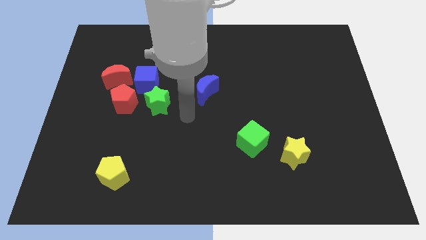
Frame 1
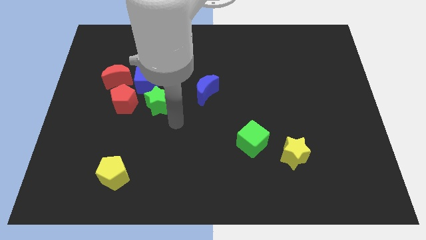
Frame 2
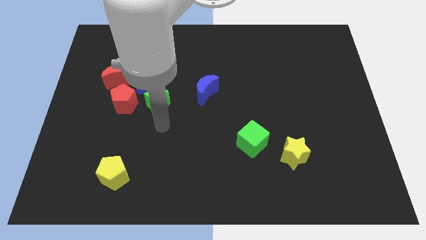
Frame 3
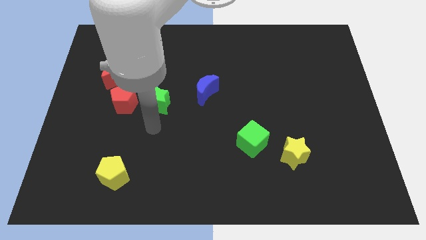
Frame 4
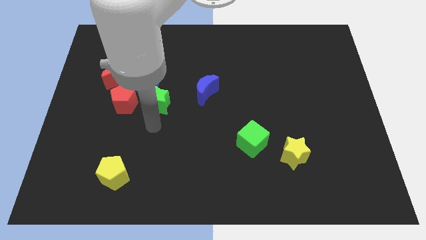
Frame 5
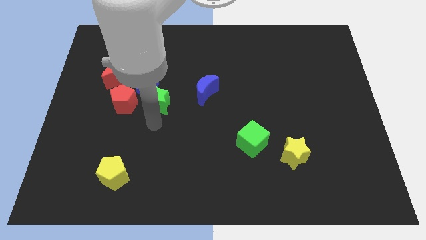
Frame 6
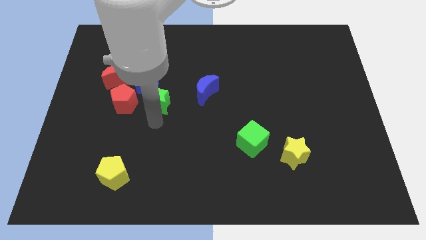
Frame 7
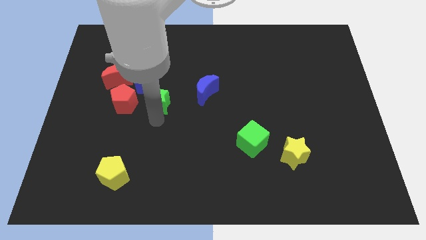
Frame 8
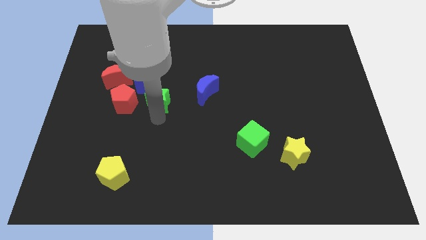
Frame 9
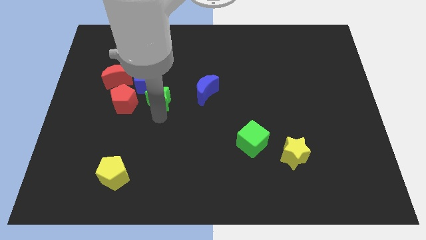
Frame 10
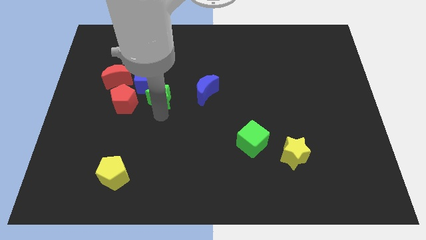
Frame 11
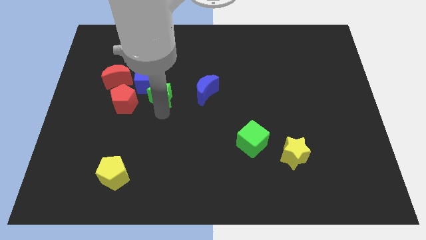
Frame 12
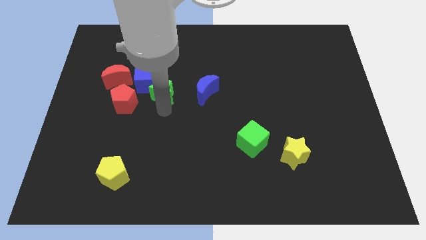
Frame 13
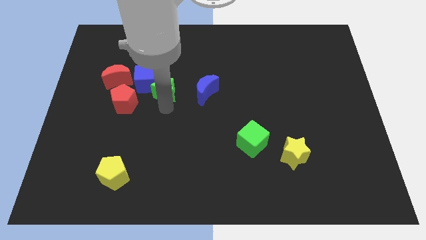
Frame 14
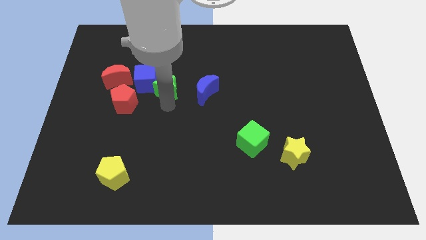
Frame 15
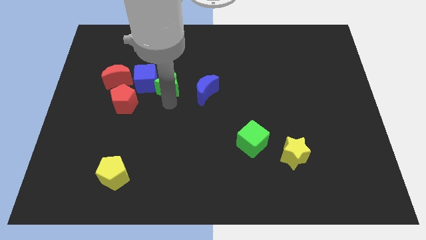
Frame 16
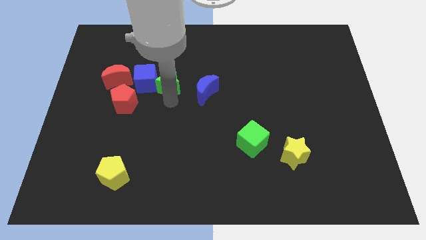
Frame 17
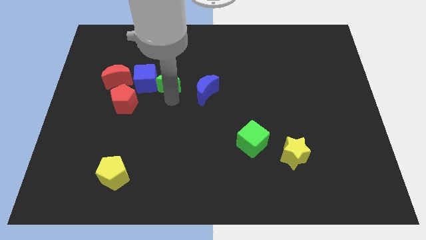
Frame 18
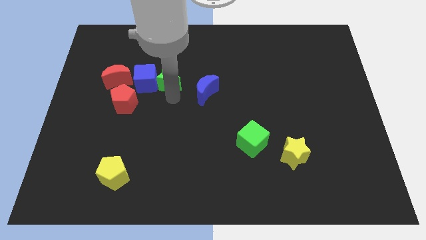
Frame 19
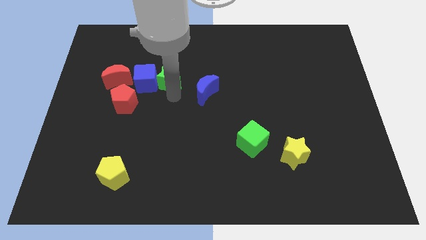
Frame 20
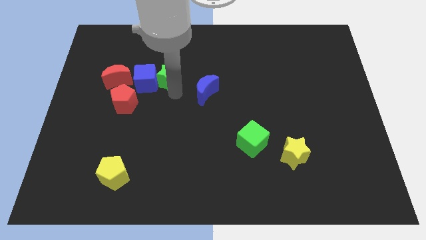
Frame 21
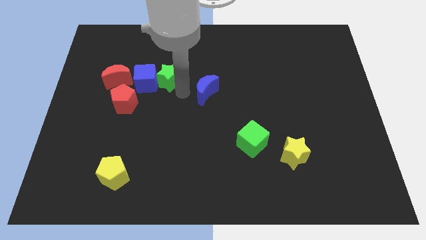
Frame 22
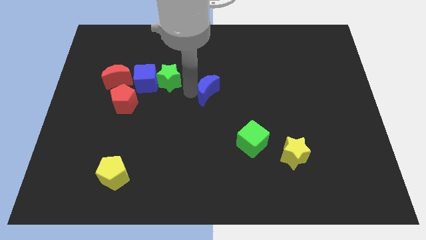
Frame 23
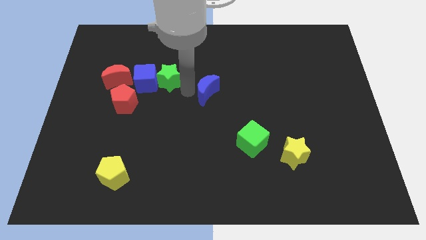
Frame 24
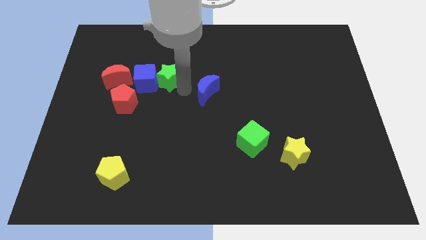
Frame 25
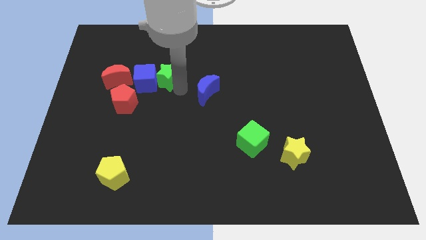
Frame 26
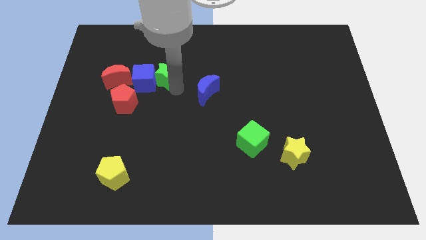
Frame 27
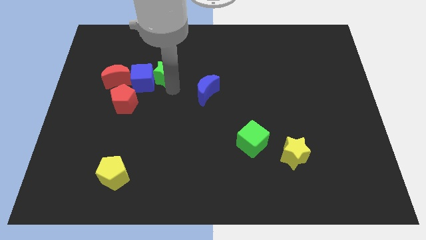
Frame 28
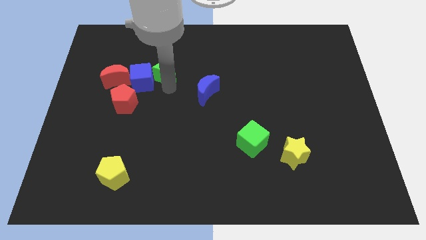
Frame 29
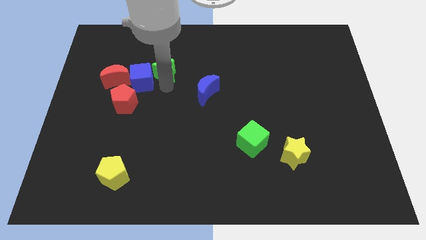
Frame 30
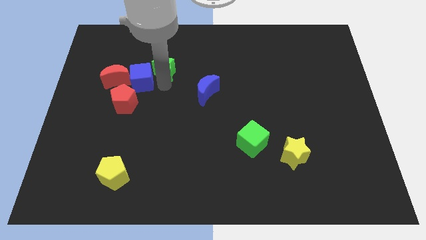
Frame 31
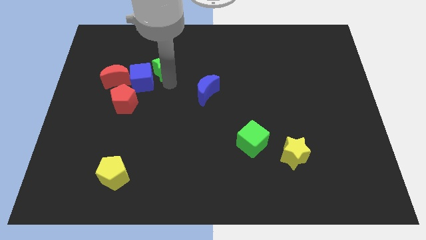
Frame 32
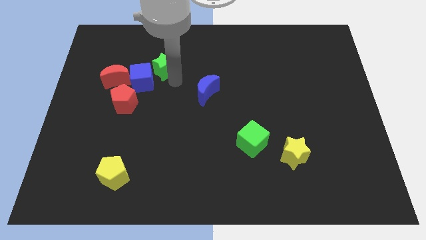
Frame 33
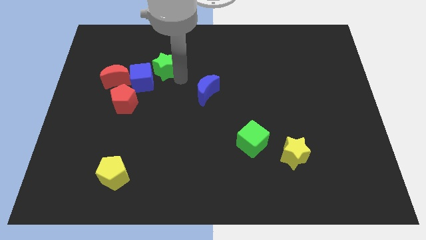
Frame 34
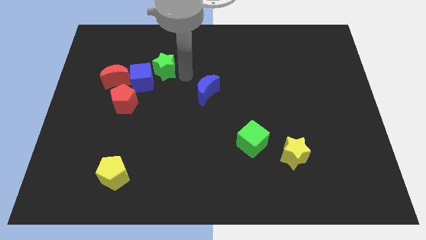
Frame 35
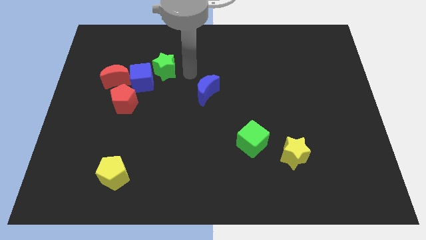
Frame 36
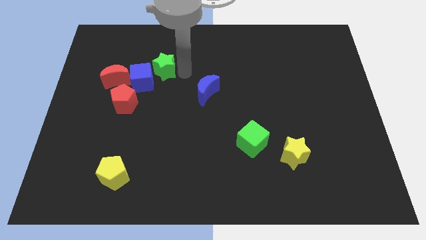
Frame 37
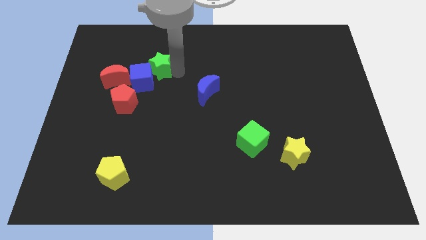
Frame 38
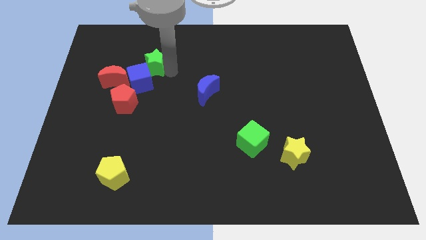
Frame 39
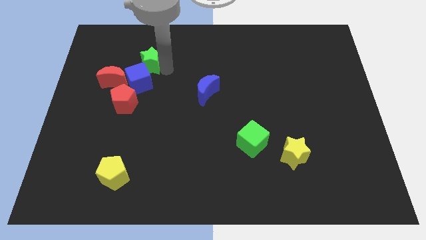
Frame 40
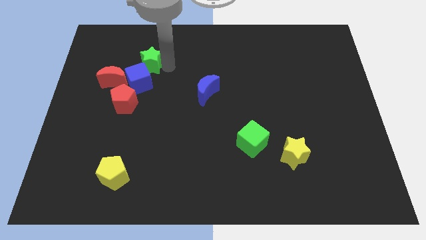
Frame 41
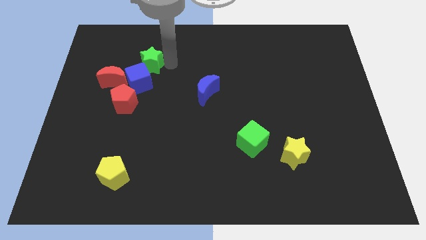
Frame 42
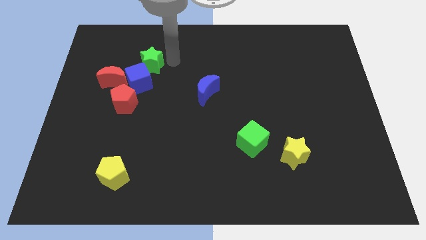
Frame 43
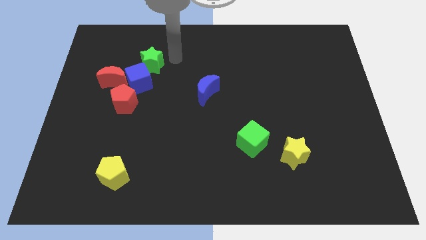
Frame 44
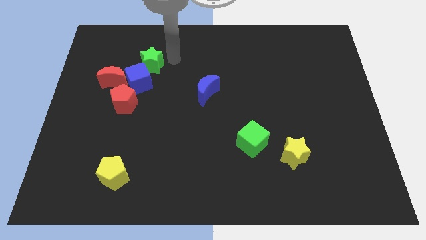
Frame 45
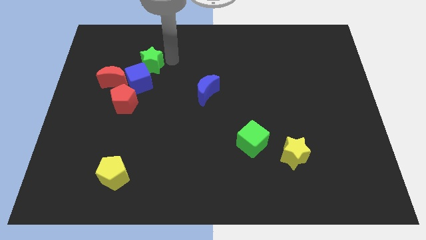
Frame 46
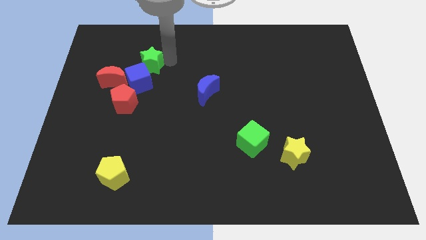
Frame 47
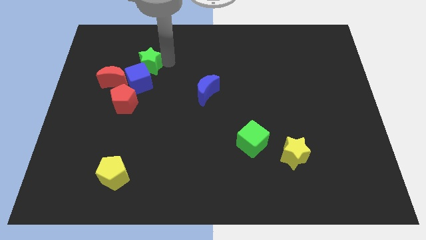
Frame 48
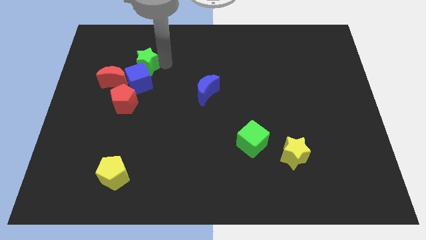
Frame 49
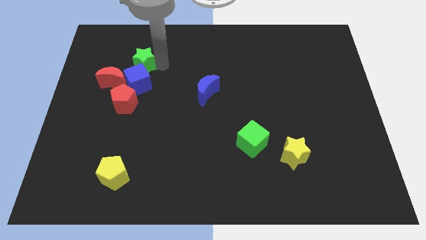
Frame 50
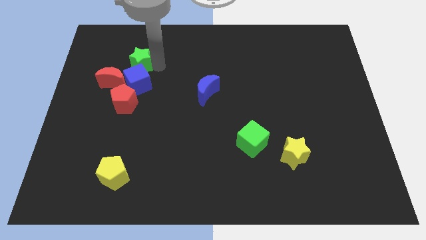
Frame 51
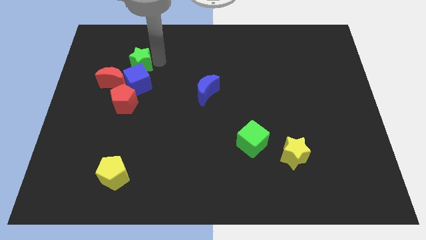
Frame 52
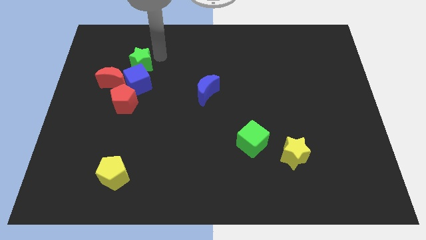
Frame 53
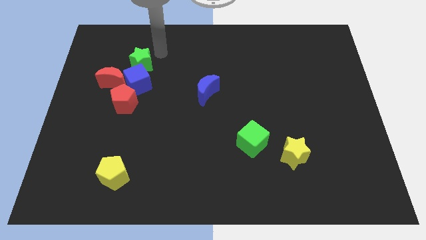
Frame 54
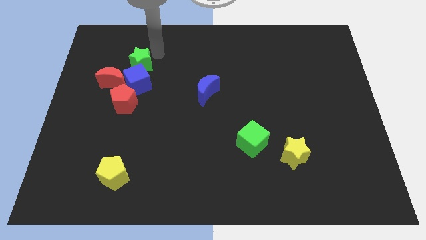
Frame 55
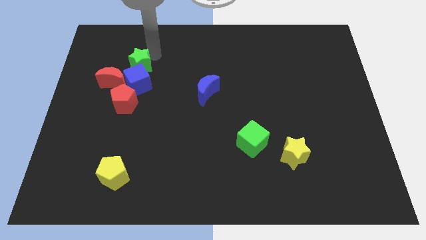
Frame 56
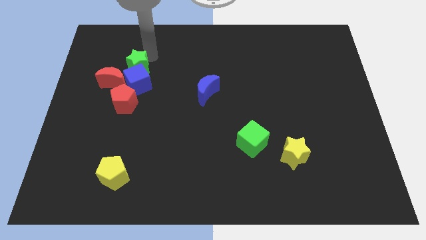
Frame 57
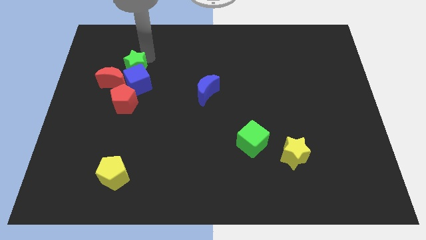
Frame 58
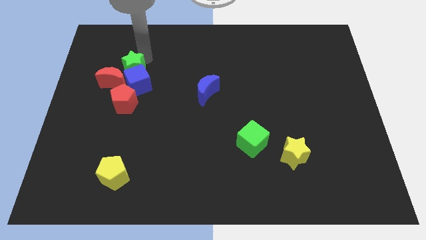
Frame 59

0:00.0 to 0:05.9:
put the green star to the red moon

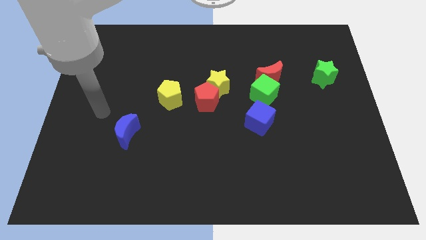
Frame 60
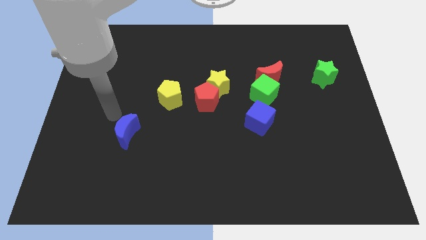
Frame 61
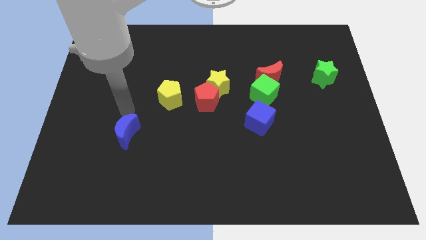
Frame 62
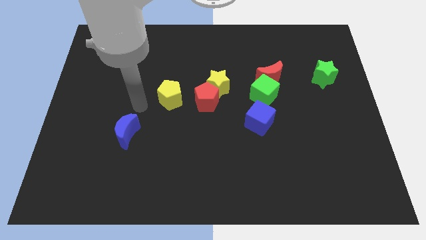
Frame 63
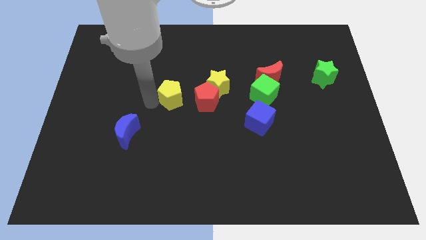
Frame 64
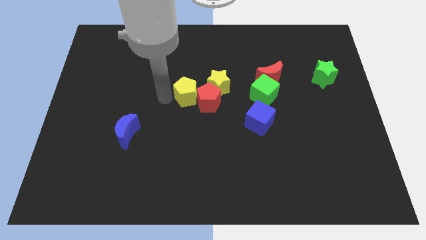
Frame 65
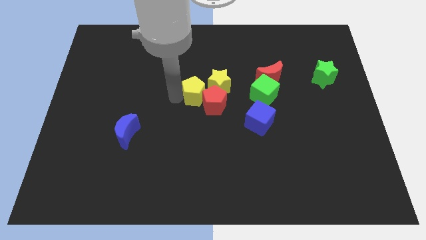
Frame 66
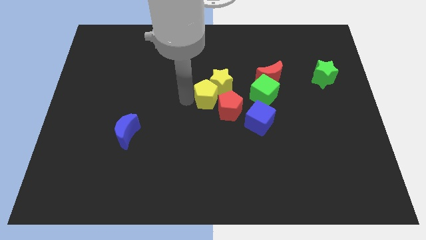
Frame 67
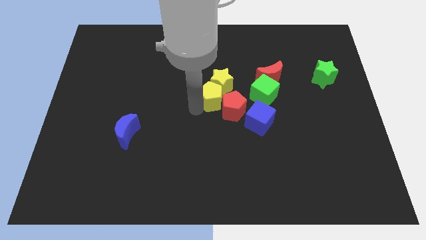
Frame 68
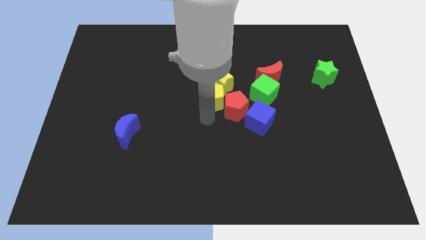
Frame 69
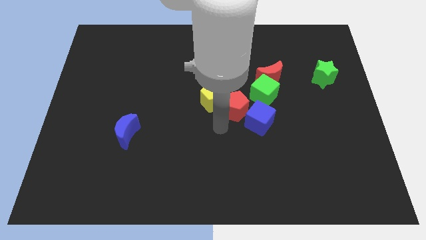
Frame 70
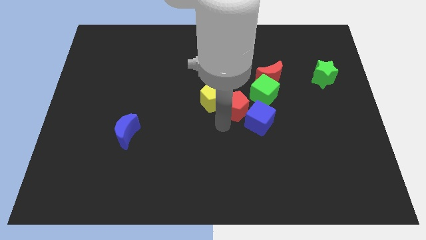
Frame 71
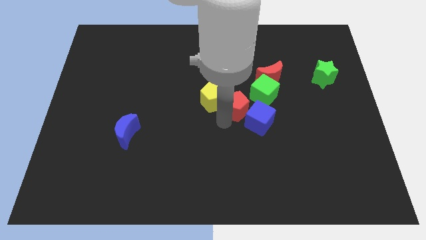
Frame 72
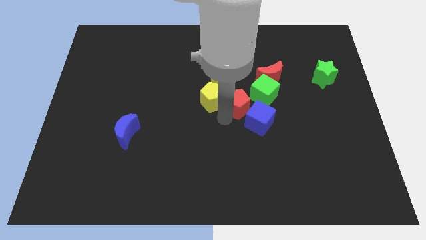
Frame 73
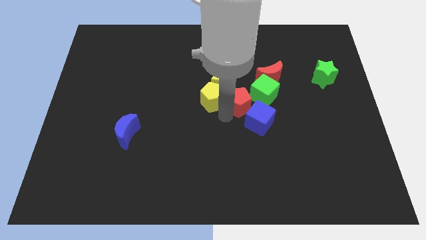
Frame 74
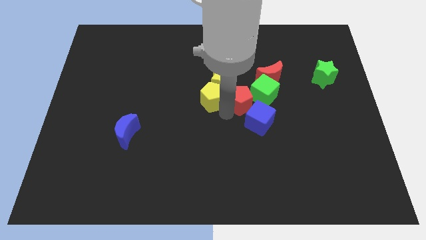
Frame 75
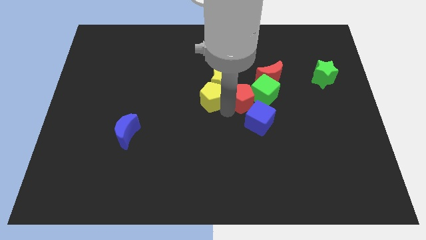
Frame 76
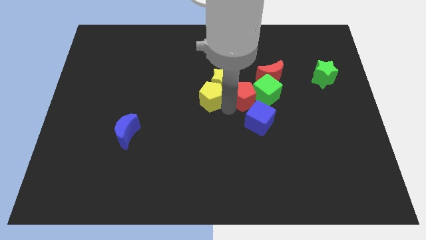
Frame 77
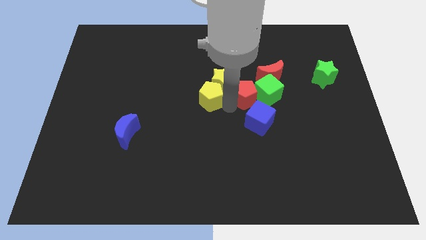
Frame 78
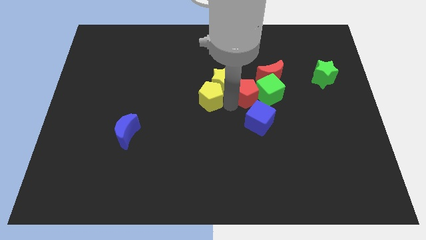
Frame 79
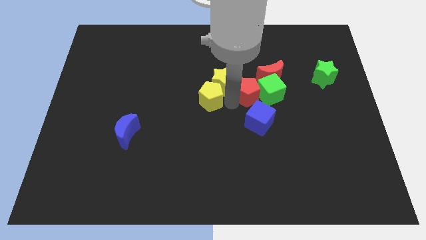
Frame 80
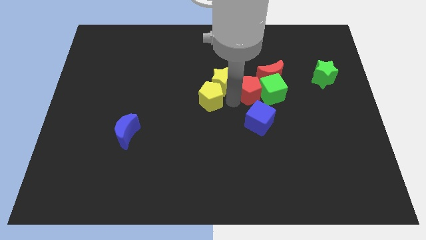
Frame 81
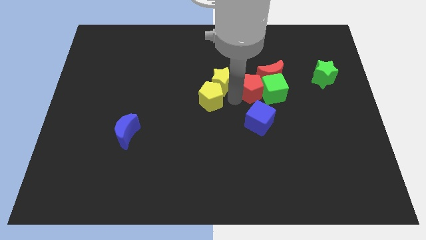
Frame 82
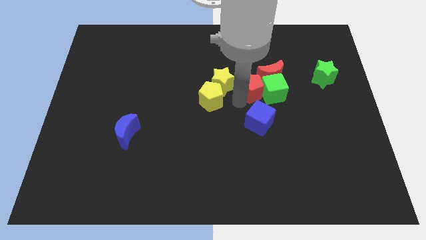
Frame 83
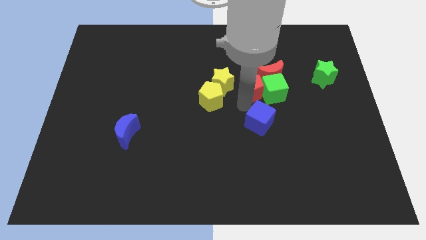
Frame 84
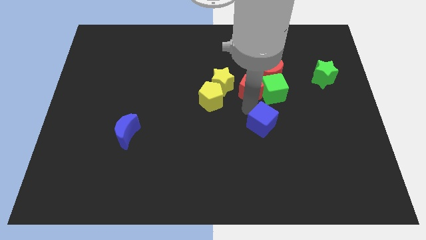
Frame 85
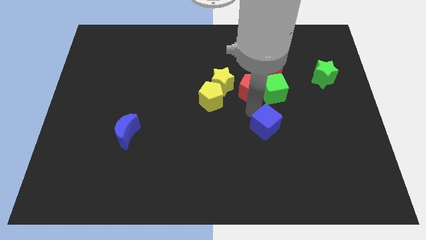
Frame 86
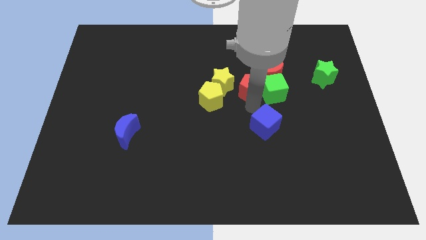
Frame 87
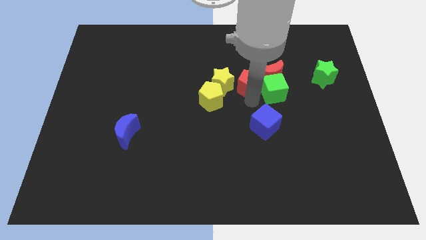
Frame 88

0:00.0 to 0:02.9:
put the red pentagon to the red moon
